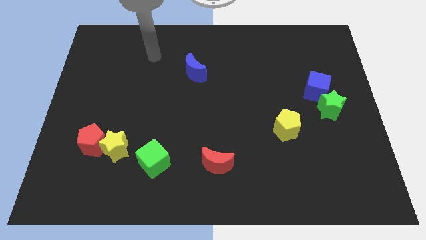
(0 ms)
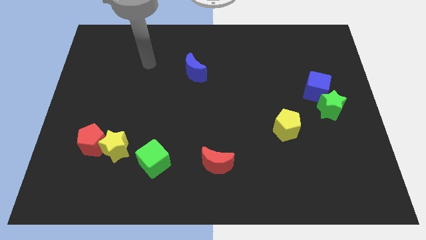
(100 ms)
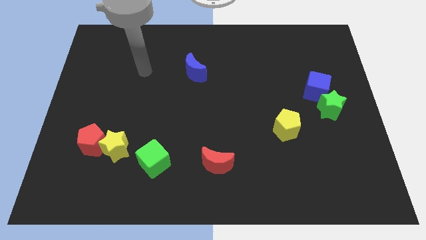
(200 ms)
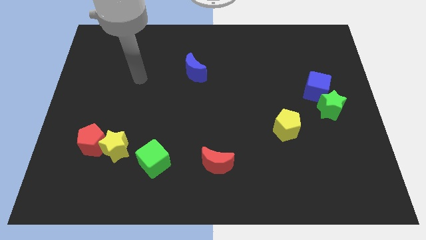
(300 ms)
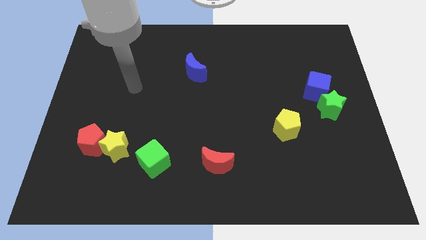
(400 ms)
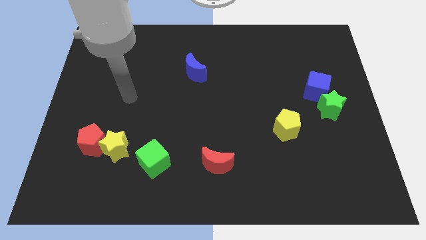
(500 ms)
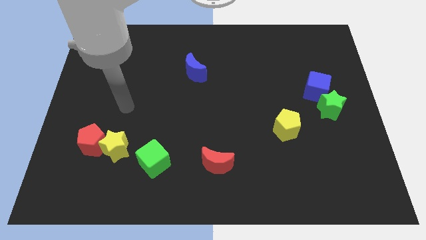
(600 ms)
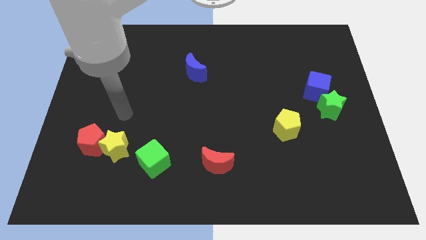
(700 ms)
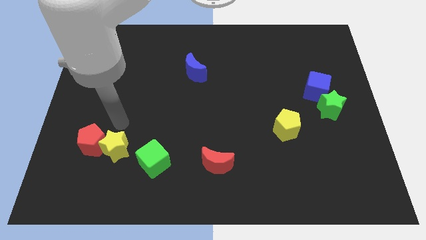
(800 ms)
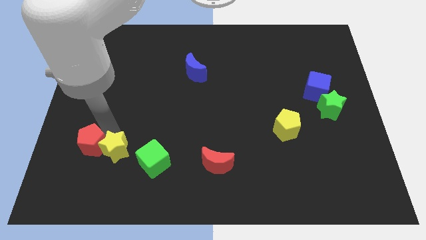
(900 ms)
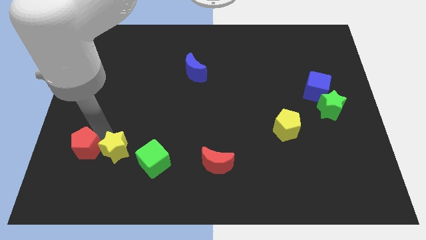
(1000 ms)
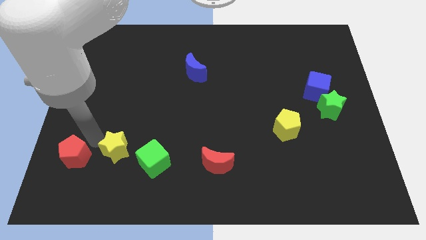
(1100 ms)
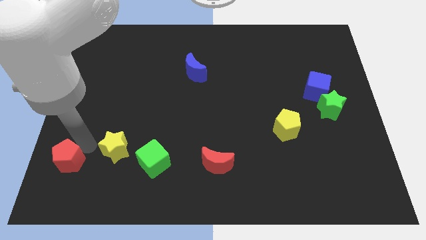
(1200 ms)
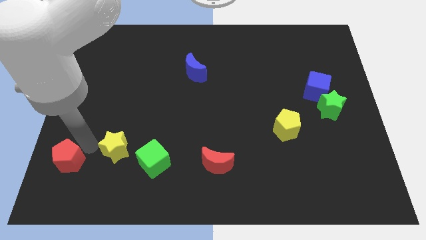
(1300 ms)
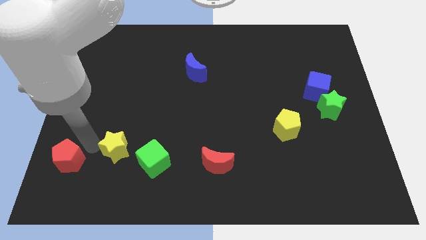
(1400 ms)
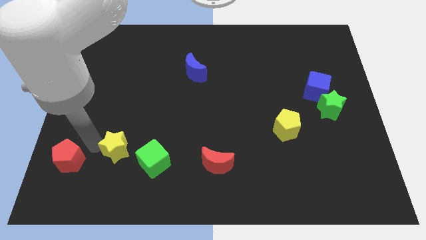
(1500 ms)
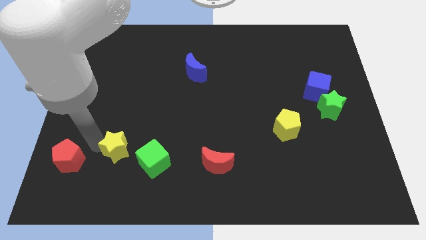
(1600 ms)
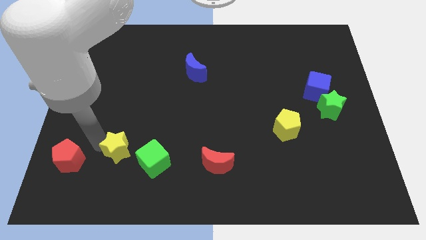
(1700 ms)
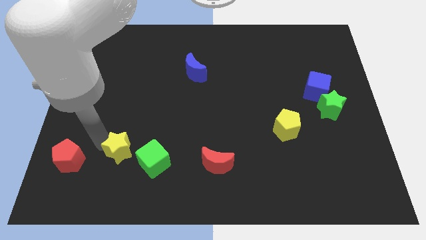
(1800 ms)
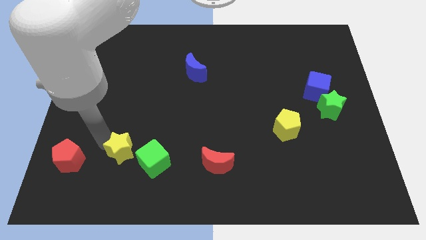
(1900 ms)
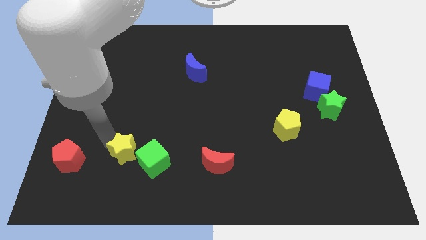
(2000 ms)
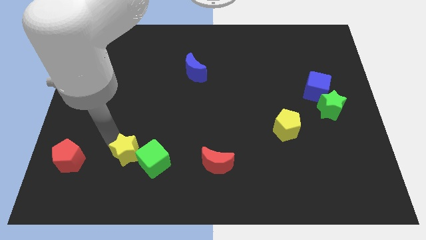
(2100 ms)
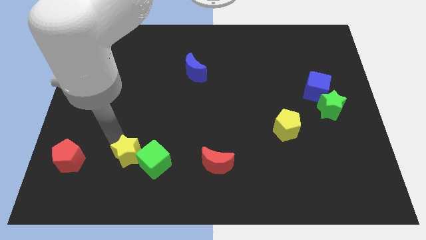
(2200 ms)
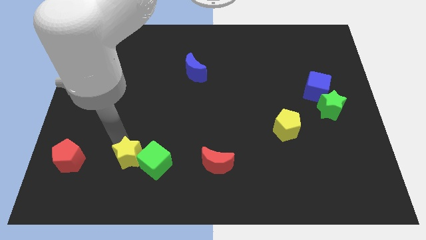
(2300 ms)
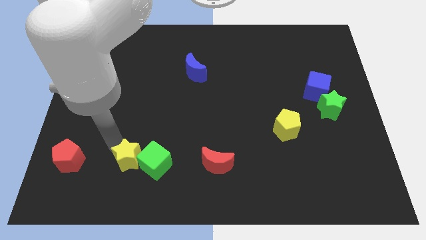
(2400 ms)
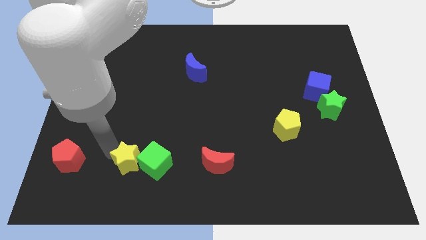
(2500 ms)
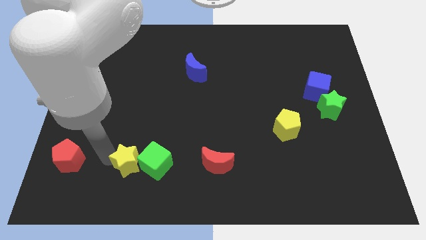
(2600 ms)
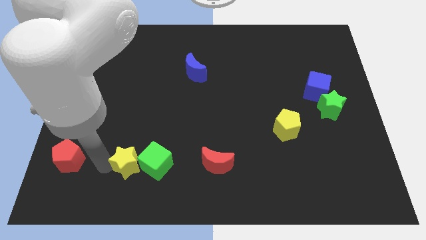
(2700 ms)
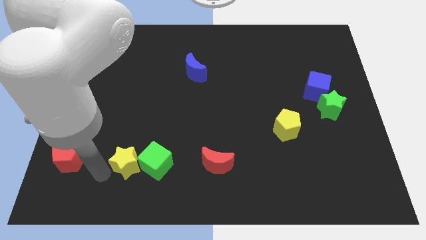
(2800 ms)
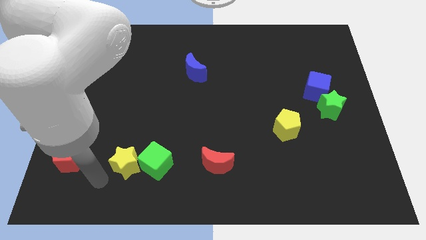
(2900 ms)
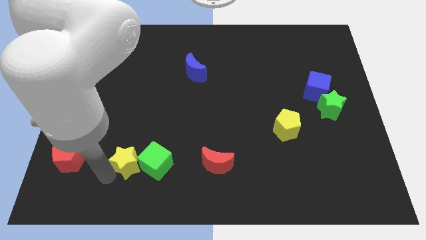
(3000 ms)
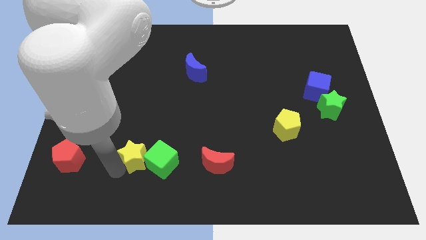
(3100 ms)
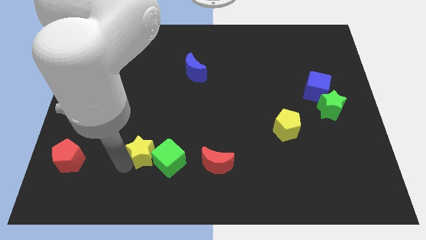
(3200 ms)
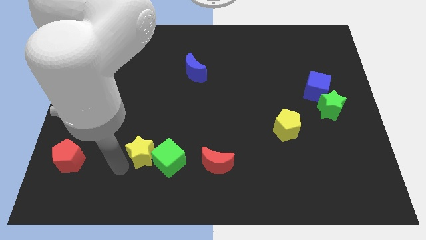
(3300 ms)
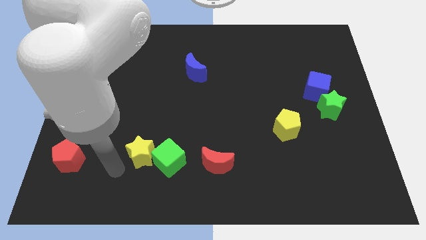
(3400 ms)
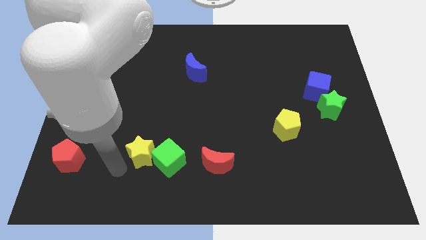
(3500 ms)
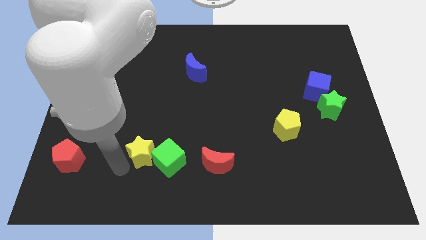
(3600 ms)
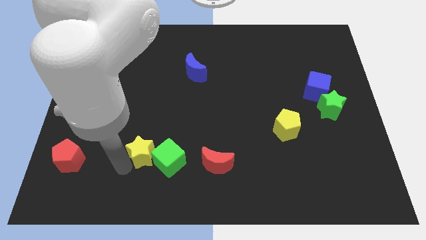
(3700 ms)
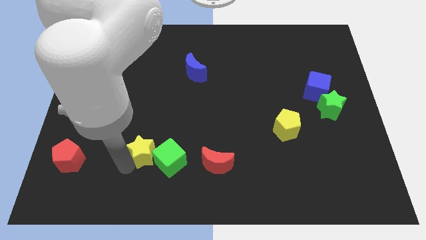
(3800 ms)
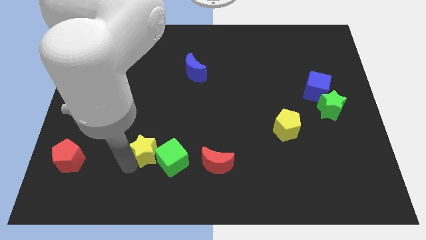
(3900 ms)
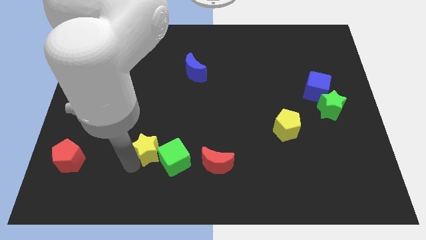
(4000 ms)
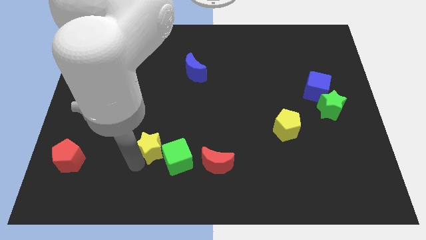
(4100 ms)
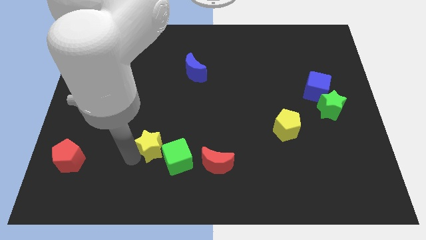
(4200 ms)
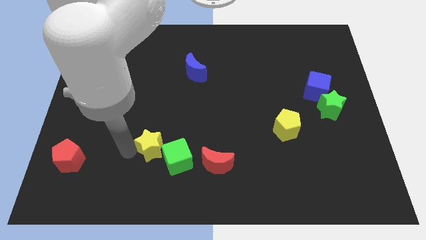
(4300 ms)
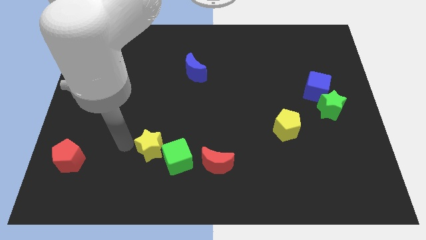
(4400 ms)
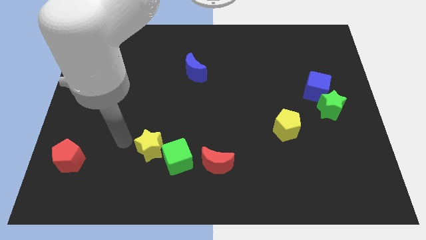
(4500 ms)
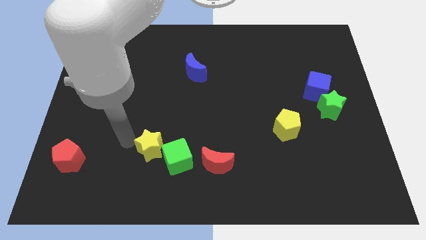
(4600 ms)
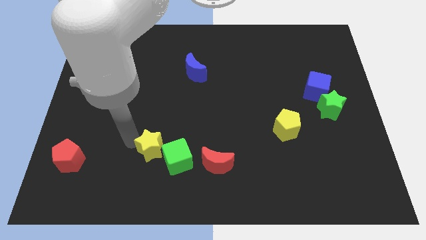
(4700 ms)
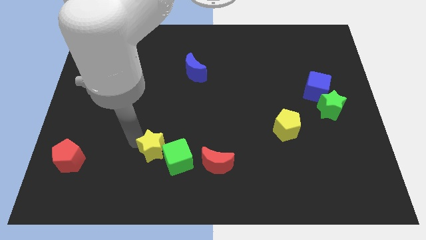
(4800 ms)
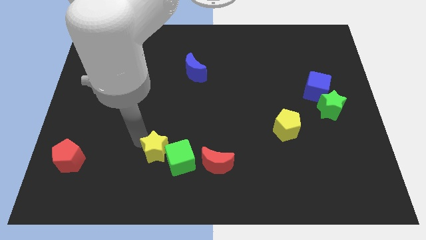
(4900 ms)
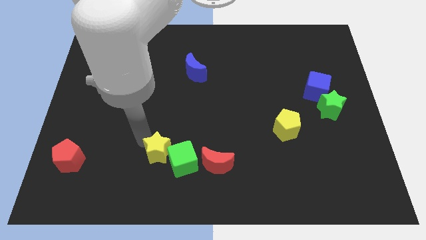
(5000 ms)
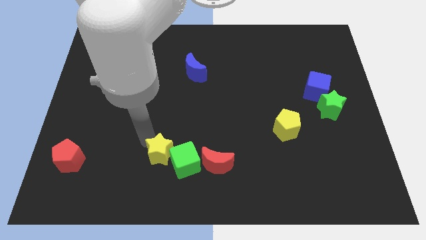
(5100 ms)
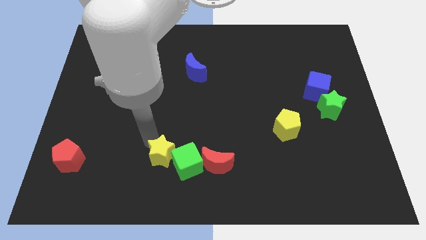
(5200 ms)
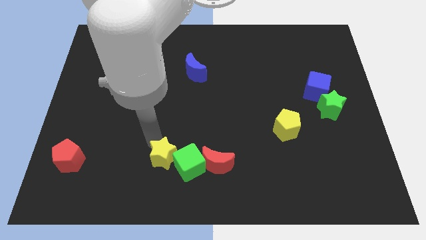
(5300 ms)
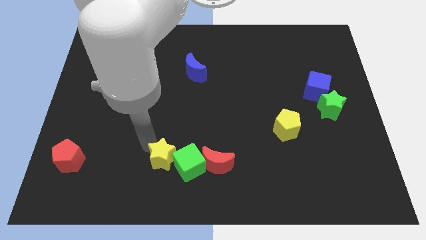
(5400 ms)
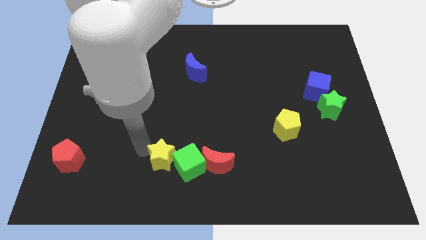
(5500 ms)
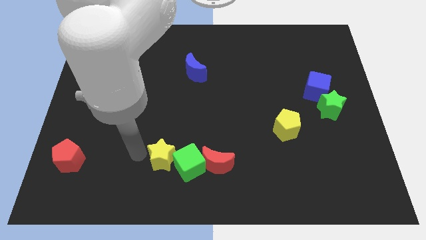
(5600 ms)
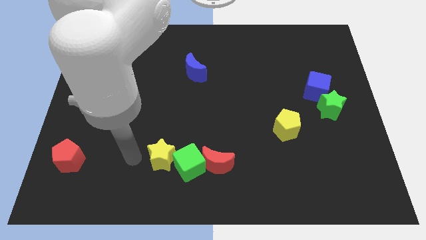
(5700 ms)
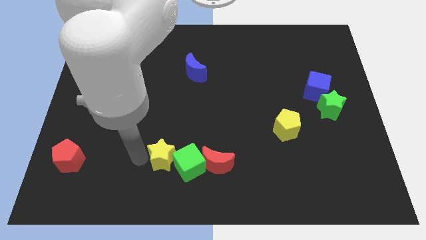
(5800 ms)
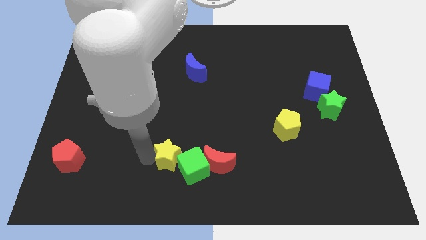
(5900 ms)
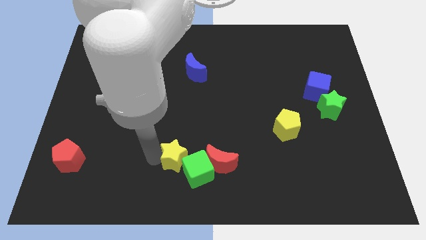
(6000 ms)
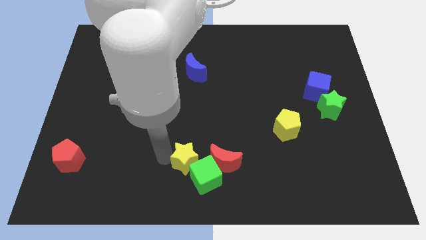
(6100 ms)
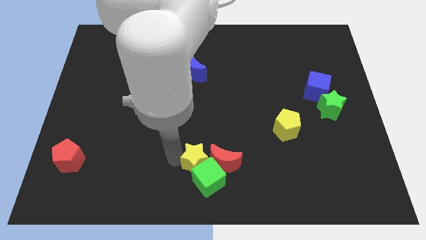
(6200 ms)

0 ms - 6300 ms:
move the yellow star towards the red moon
